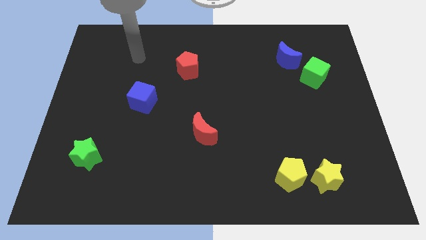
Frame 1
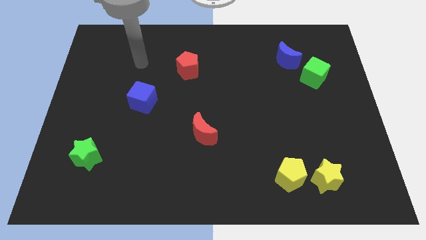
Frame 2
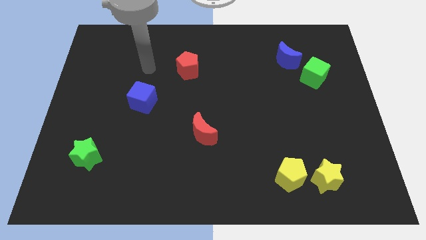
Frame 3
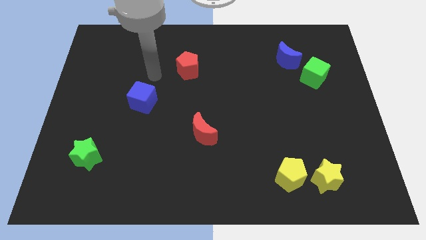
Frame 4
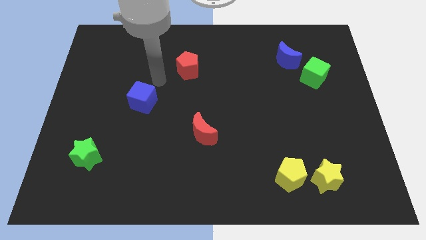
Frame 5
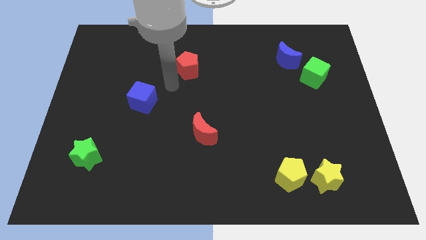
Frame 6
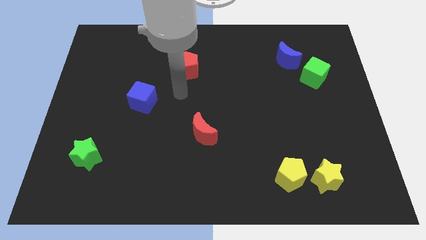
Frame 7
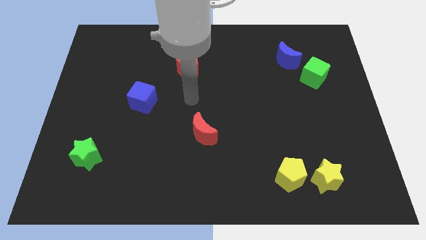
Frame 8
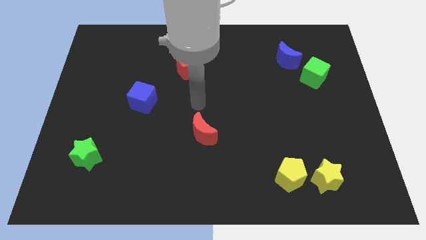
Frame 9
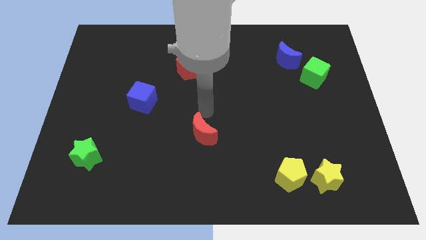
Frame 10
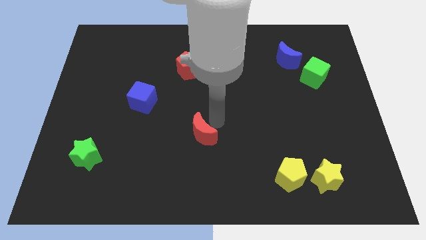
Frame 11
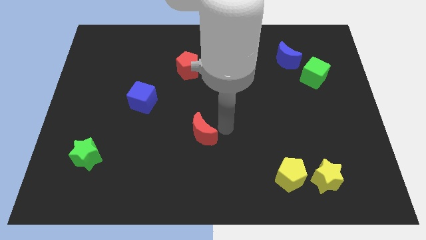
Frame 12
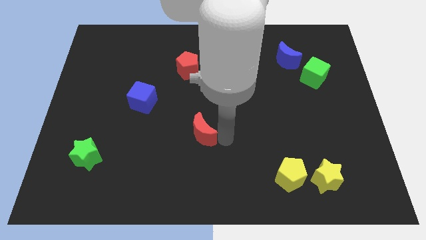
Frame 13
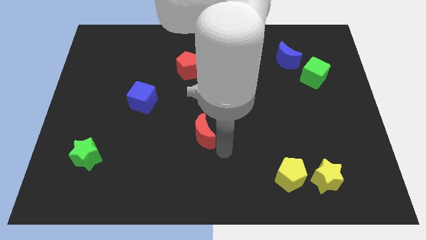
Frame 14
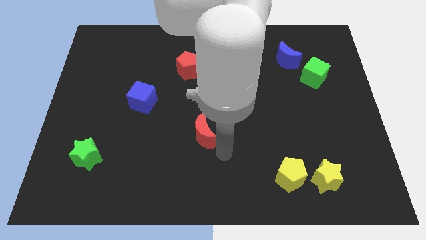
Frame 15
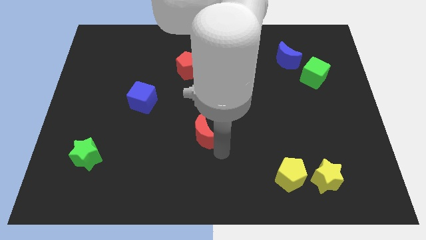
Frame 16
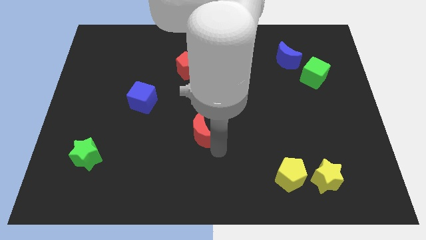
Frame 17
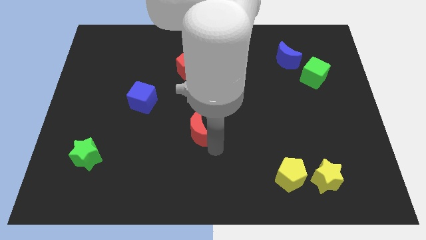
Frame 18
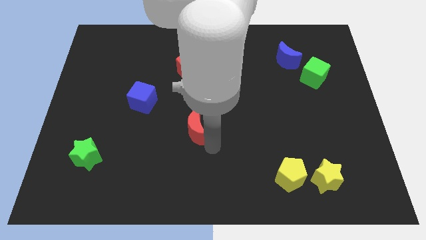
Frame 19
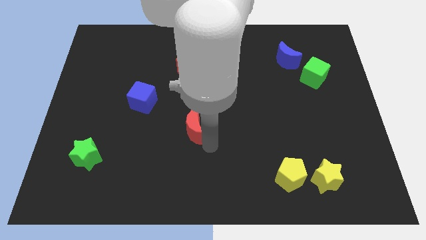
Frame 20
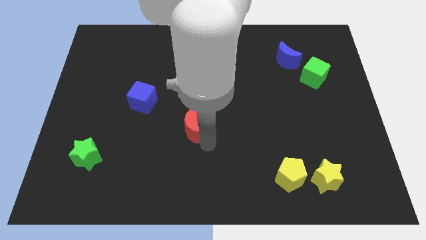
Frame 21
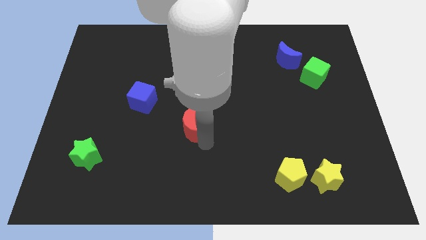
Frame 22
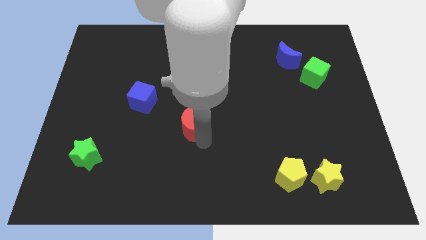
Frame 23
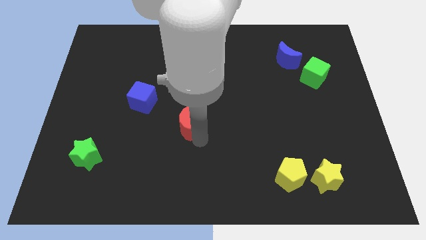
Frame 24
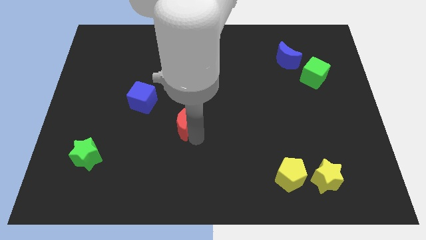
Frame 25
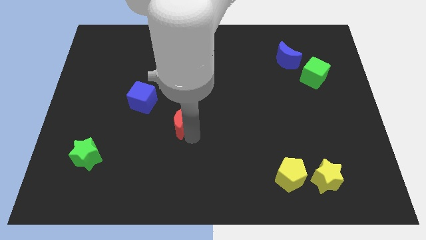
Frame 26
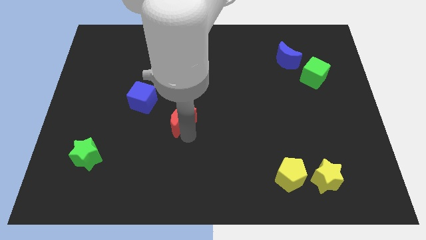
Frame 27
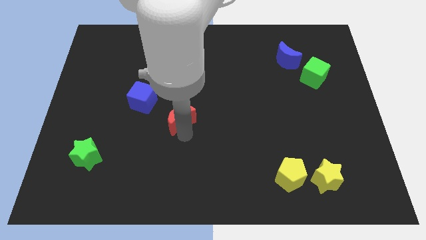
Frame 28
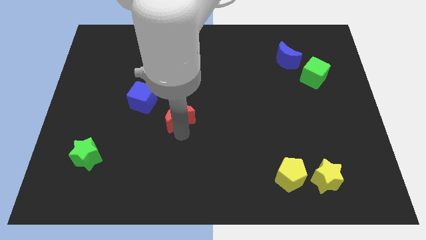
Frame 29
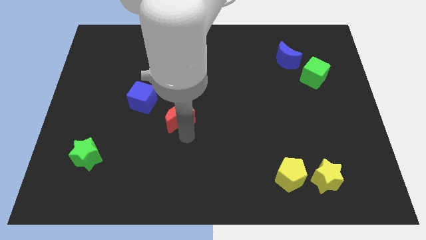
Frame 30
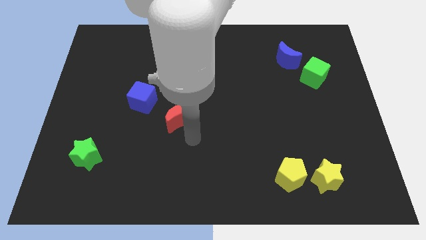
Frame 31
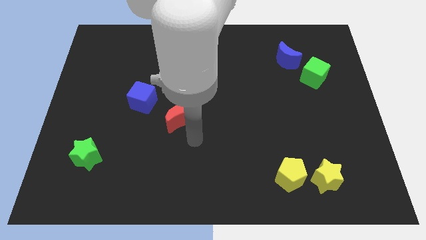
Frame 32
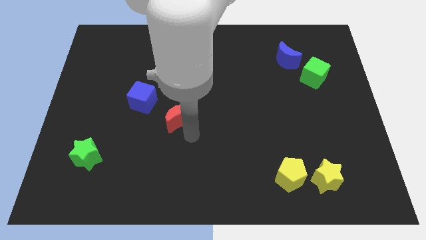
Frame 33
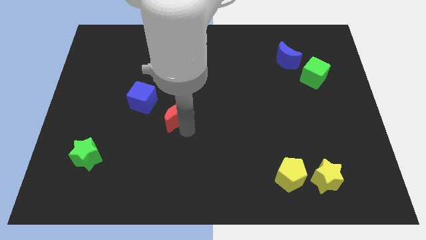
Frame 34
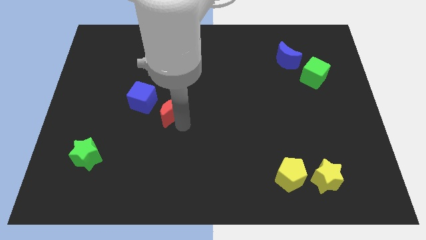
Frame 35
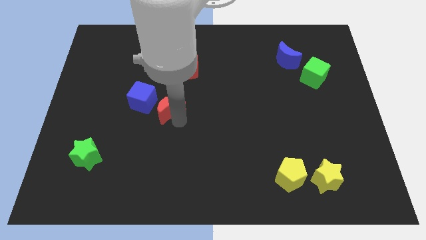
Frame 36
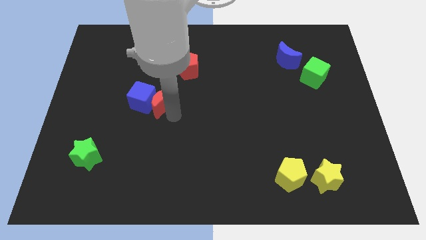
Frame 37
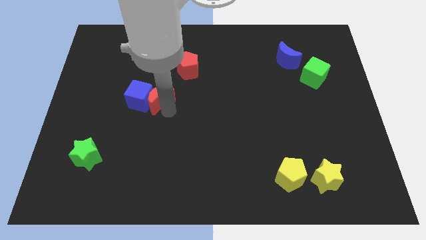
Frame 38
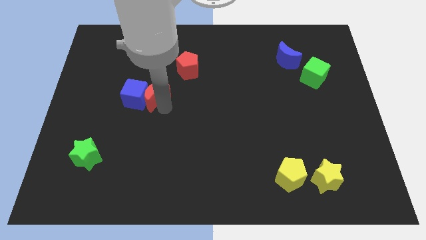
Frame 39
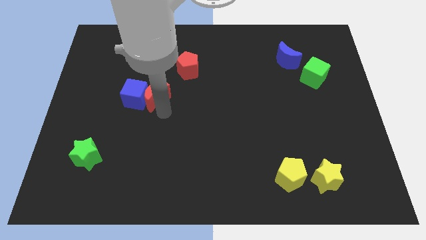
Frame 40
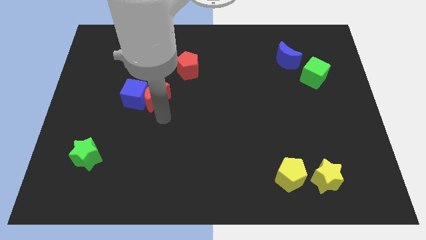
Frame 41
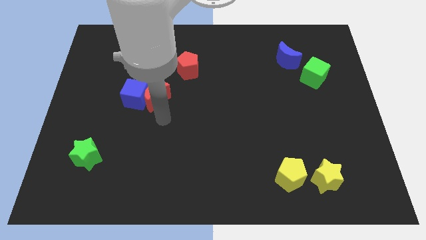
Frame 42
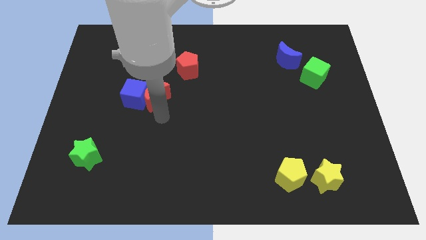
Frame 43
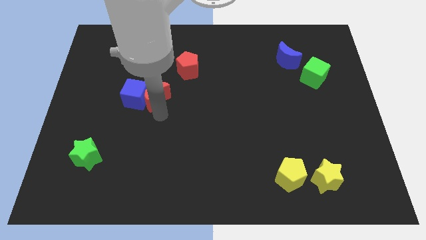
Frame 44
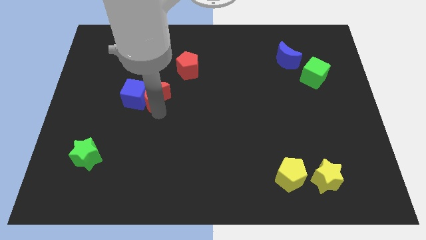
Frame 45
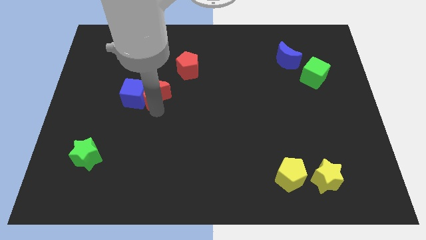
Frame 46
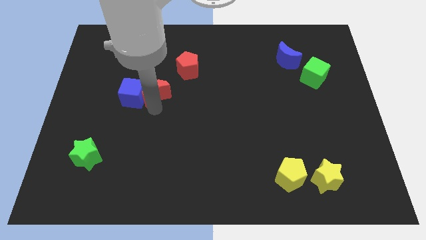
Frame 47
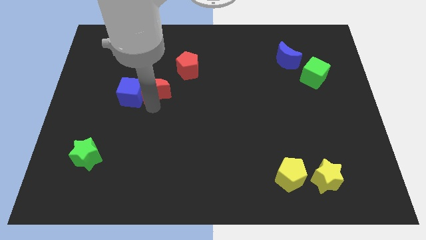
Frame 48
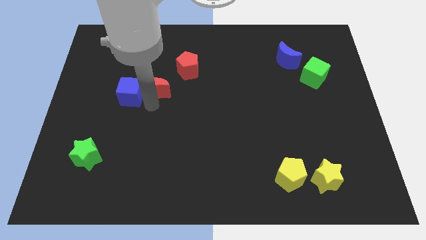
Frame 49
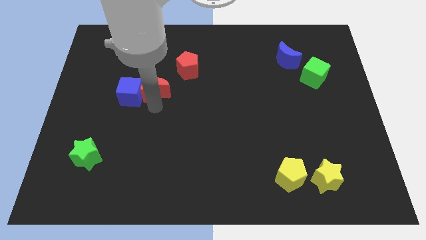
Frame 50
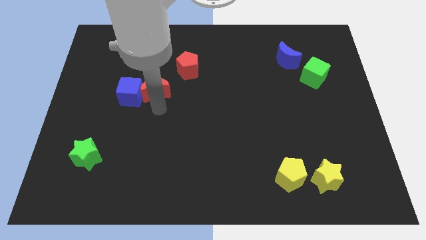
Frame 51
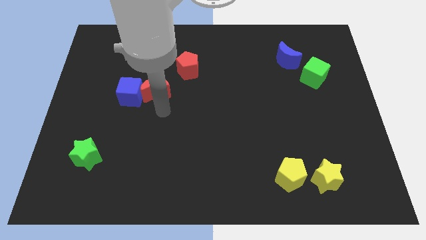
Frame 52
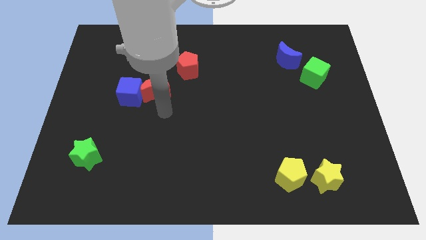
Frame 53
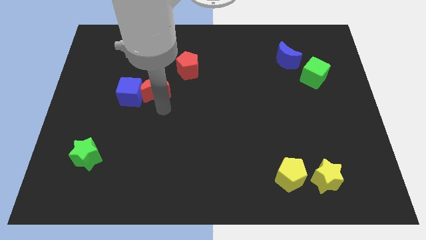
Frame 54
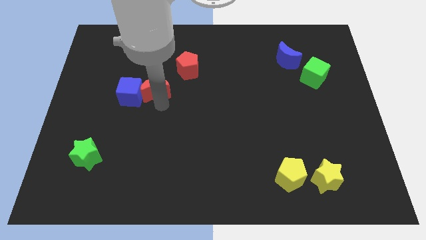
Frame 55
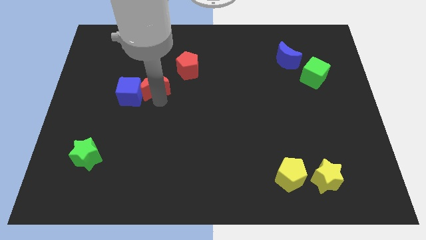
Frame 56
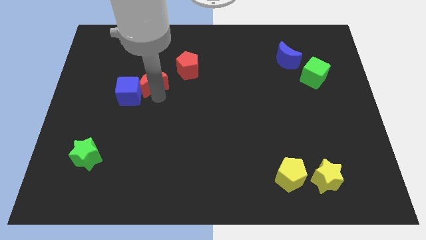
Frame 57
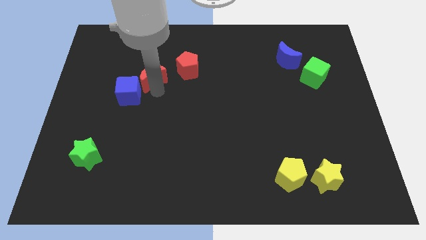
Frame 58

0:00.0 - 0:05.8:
move the red moon up and left diagonally

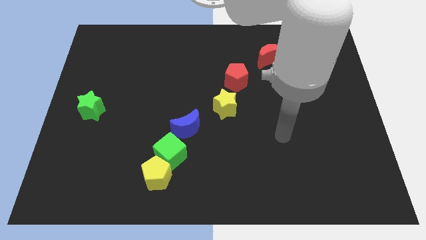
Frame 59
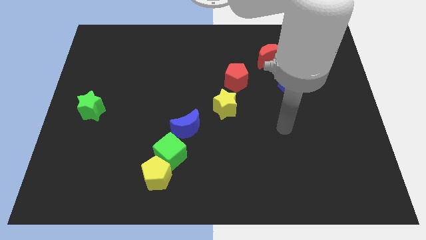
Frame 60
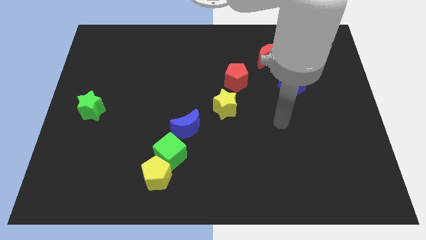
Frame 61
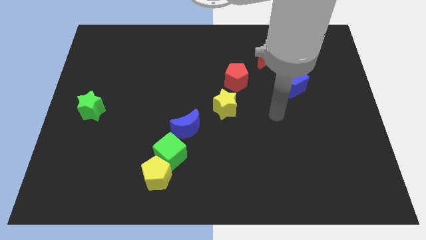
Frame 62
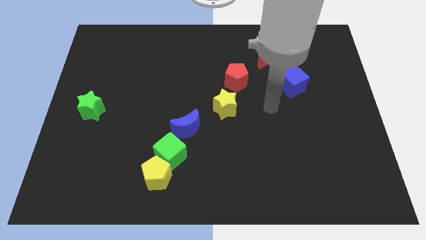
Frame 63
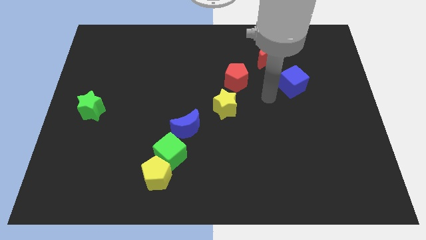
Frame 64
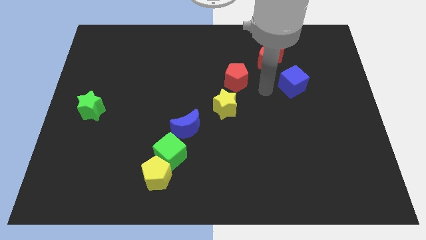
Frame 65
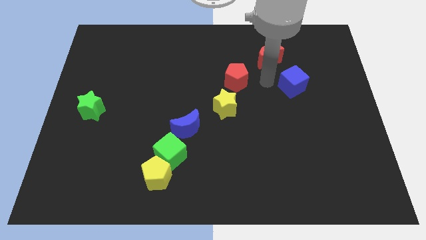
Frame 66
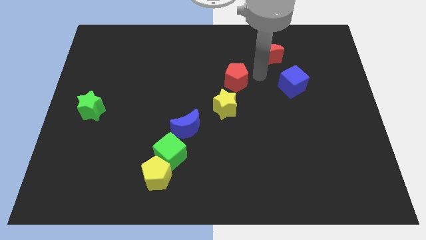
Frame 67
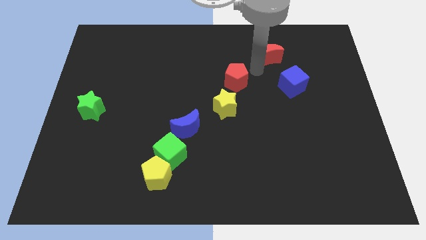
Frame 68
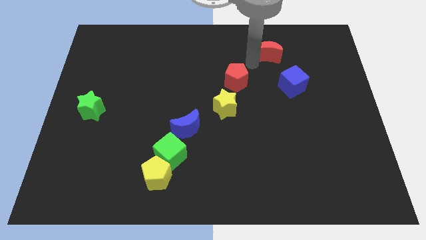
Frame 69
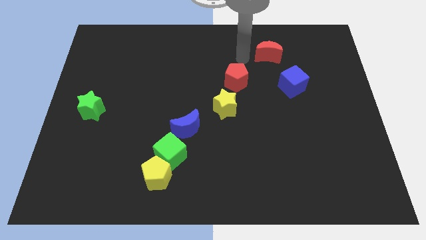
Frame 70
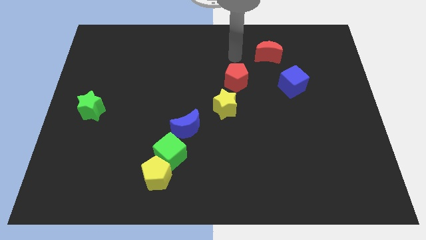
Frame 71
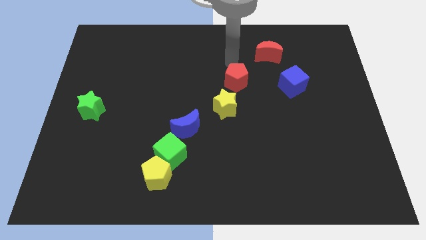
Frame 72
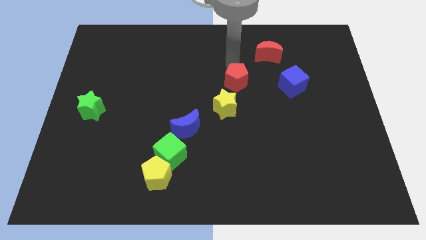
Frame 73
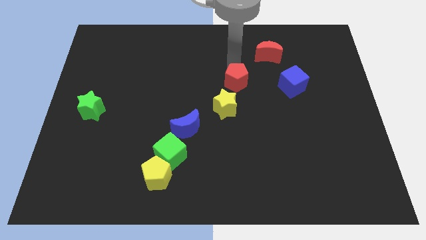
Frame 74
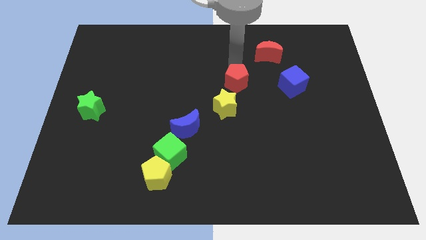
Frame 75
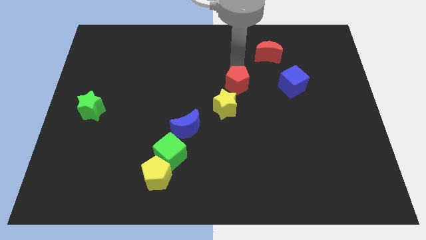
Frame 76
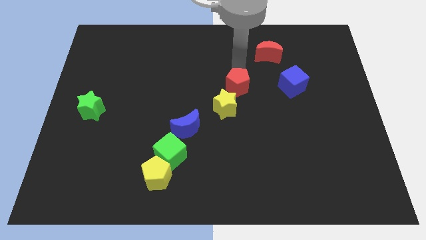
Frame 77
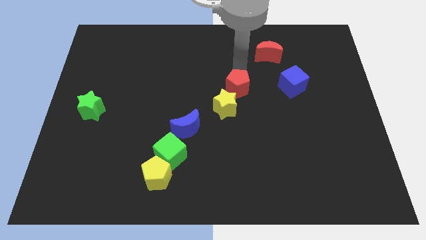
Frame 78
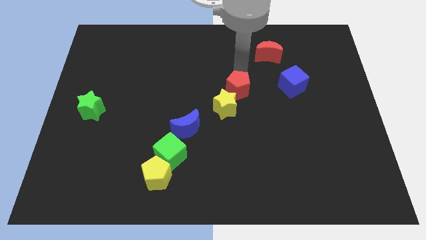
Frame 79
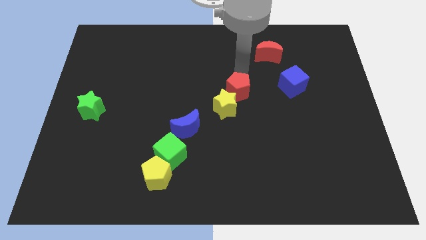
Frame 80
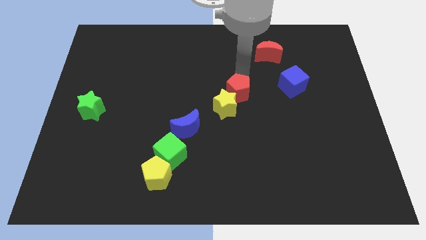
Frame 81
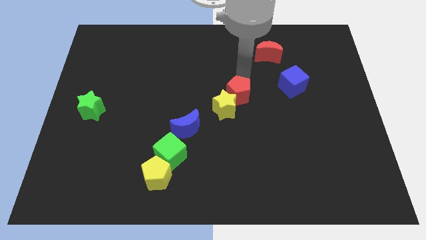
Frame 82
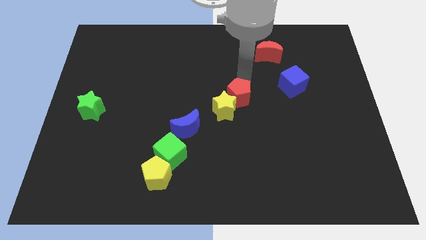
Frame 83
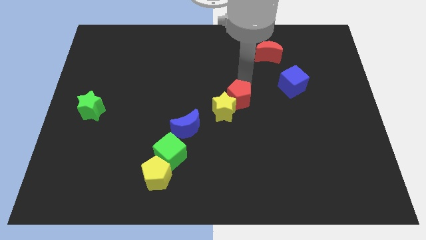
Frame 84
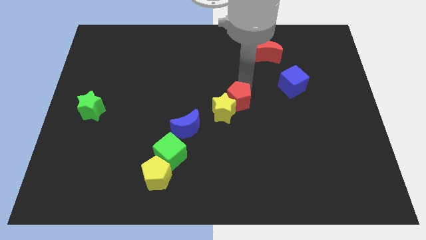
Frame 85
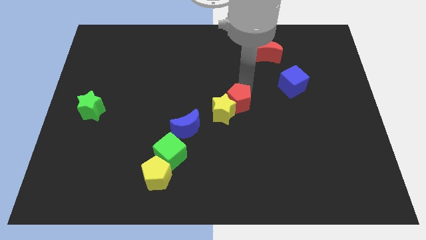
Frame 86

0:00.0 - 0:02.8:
move the red pentagon a bit downwards
